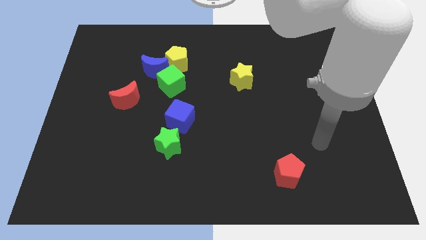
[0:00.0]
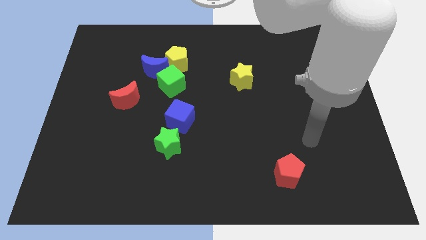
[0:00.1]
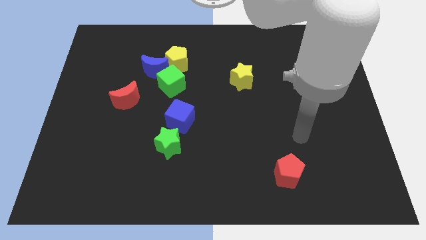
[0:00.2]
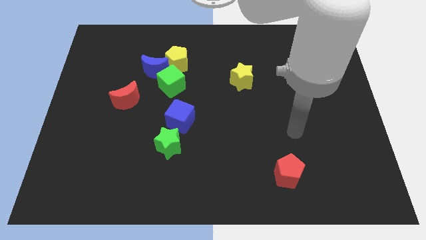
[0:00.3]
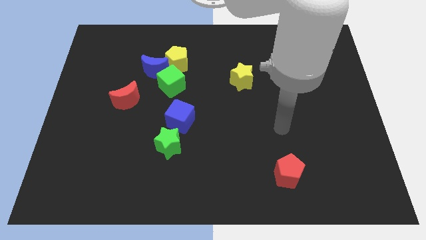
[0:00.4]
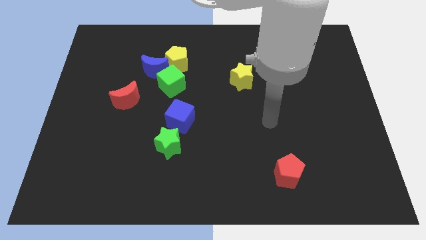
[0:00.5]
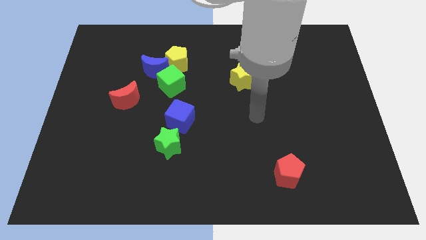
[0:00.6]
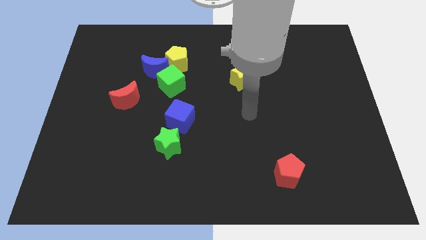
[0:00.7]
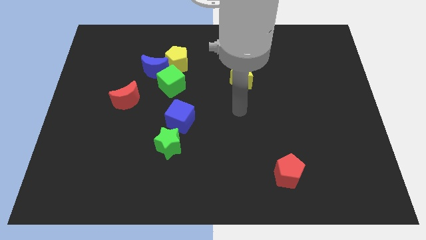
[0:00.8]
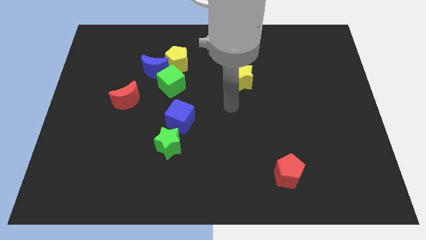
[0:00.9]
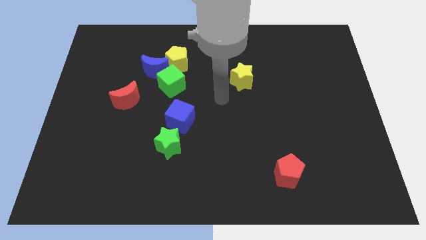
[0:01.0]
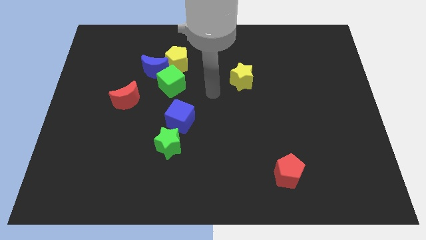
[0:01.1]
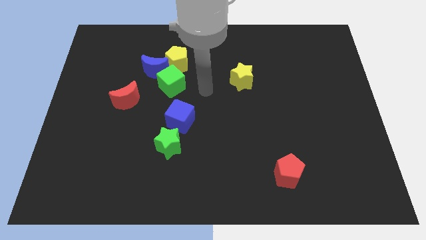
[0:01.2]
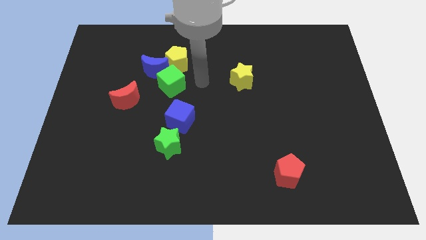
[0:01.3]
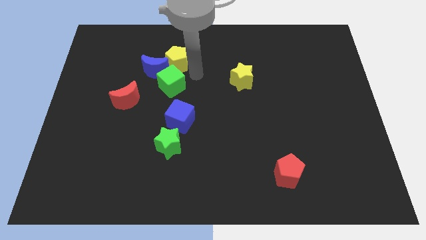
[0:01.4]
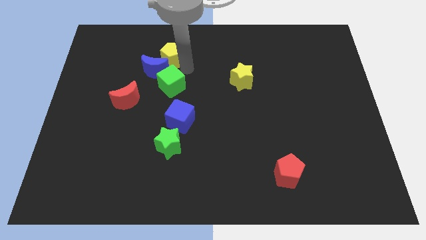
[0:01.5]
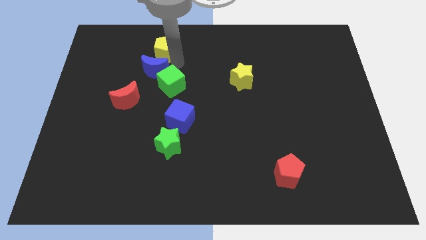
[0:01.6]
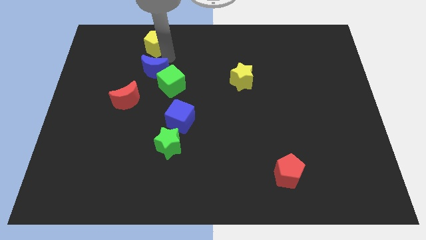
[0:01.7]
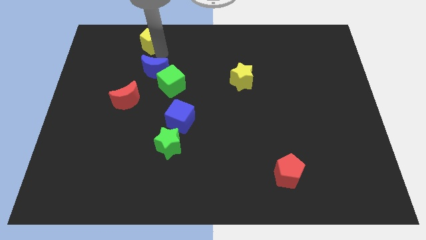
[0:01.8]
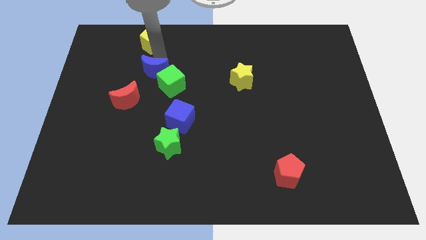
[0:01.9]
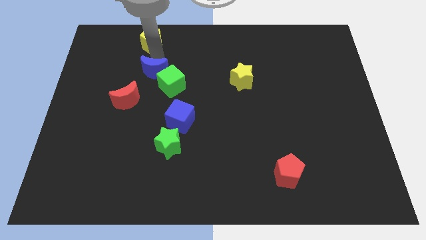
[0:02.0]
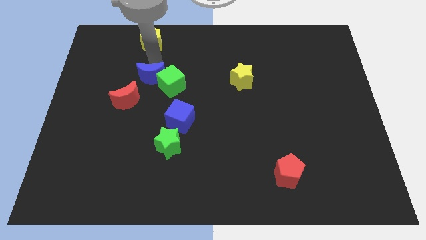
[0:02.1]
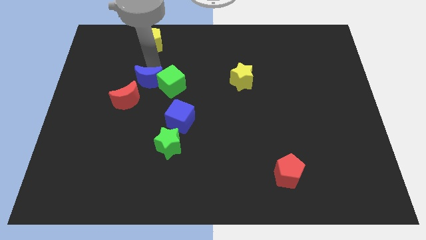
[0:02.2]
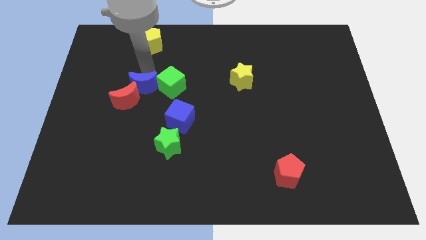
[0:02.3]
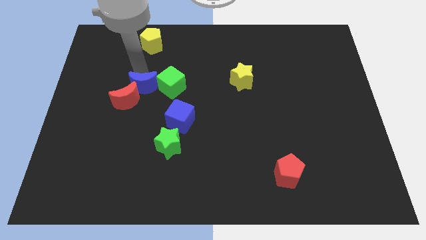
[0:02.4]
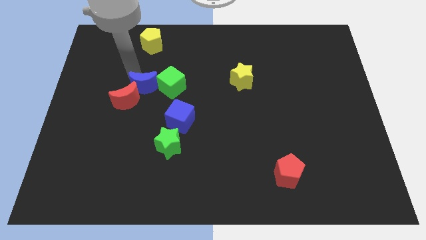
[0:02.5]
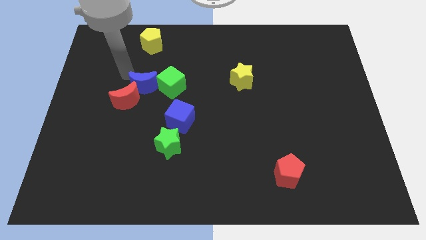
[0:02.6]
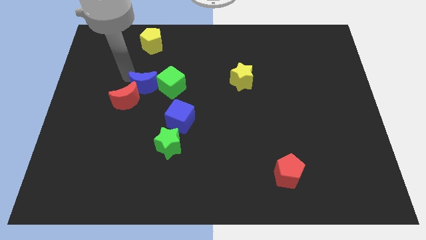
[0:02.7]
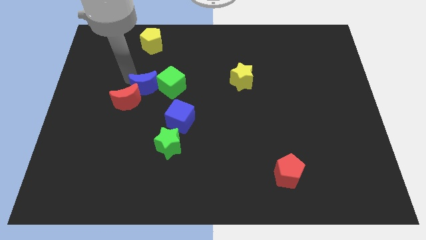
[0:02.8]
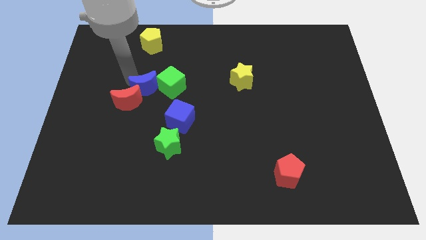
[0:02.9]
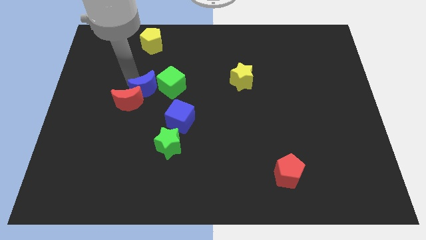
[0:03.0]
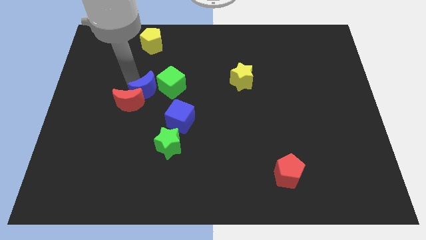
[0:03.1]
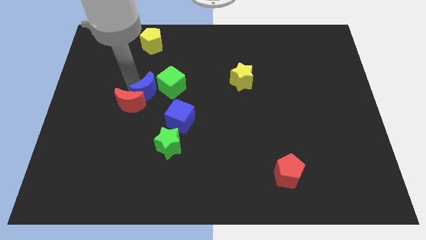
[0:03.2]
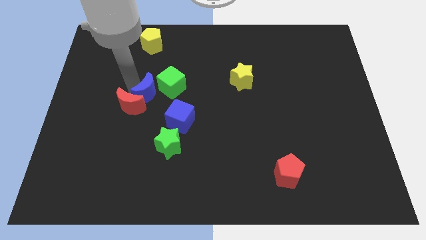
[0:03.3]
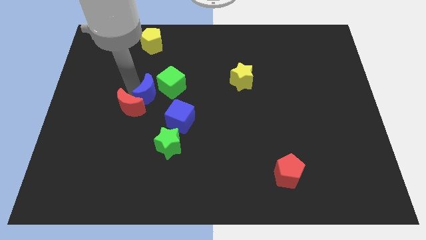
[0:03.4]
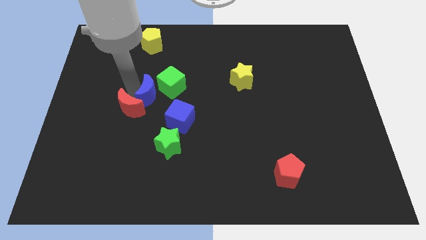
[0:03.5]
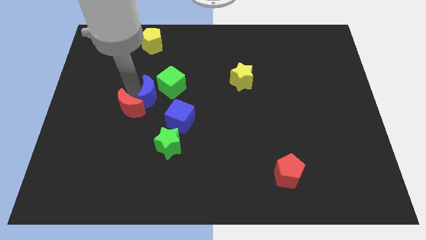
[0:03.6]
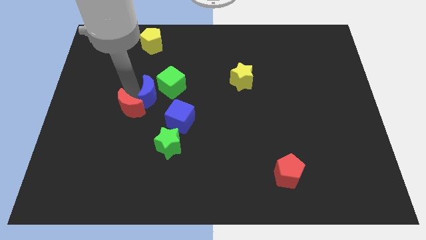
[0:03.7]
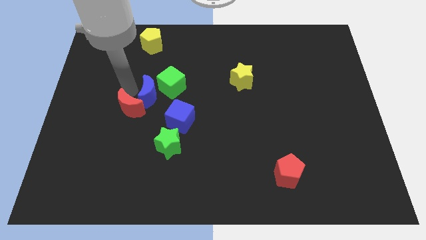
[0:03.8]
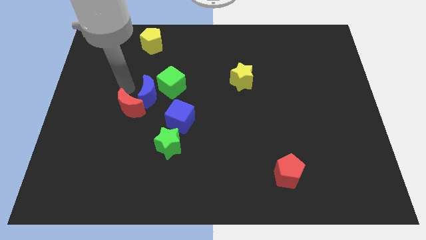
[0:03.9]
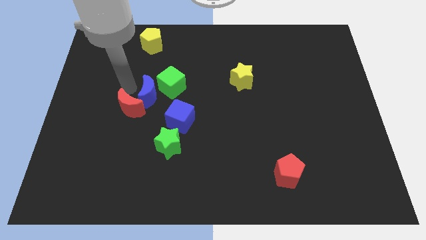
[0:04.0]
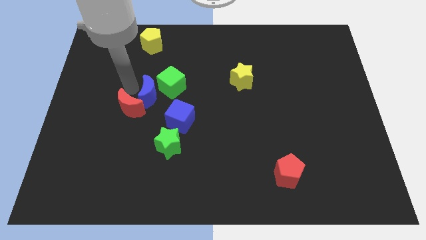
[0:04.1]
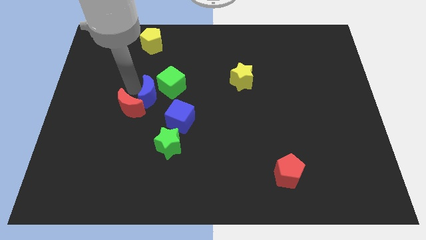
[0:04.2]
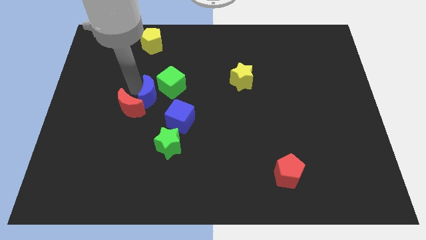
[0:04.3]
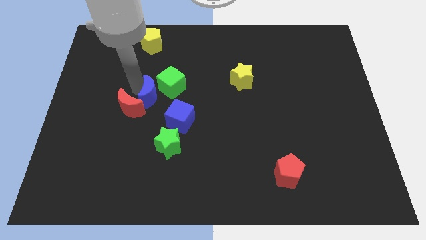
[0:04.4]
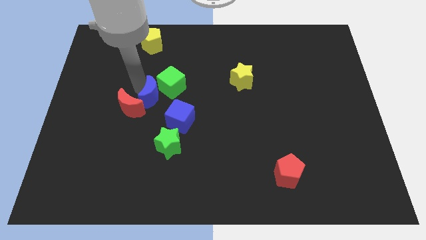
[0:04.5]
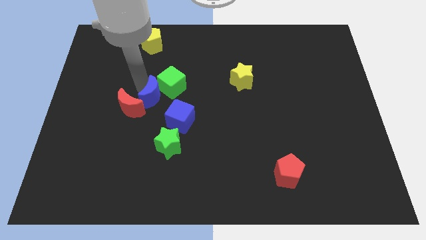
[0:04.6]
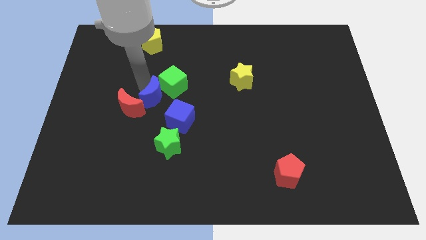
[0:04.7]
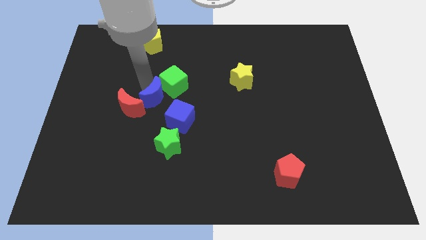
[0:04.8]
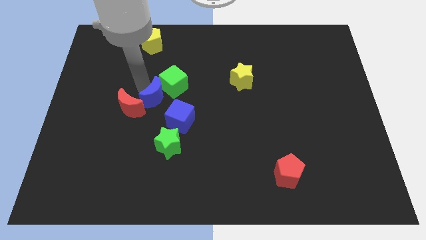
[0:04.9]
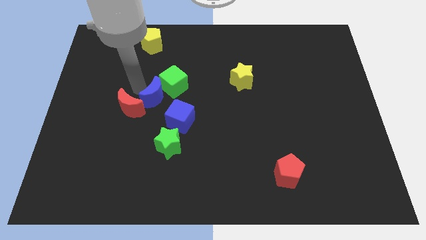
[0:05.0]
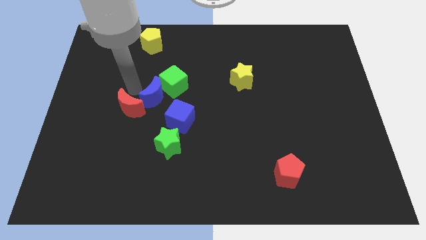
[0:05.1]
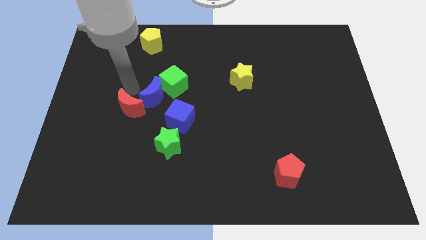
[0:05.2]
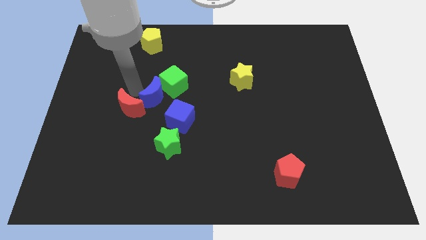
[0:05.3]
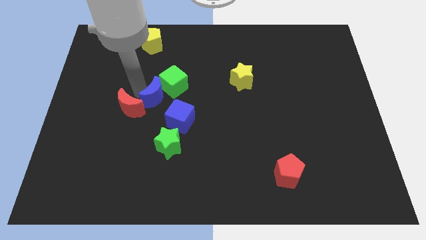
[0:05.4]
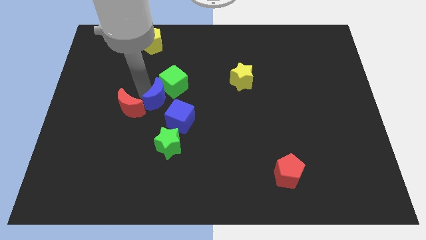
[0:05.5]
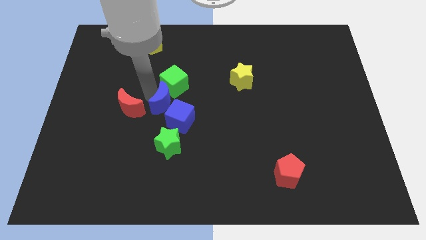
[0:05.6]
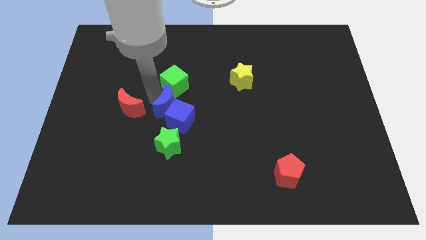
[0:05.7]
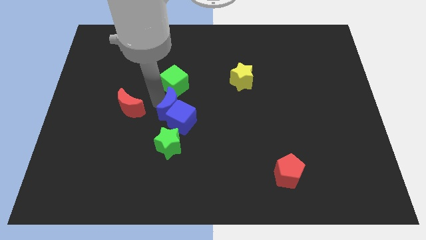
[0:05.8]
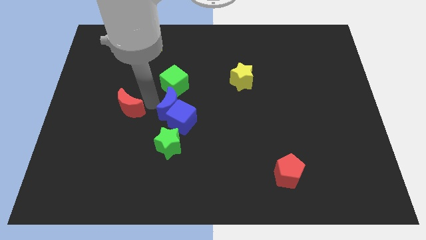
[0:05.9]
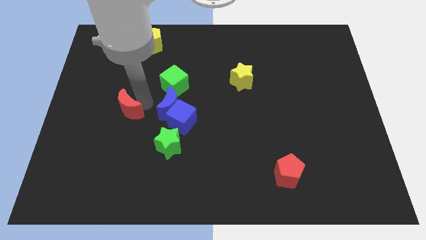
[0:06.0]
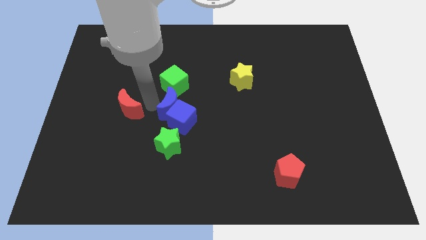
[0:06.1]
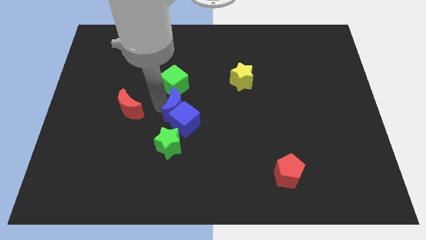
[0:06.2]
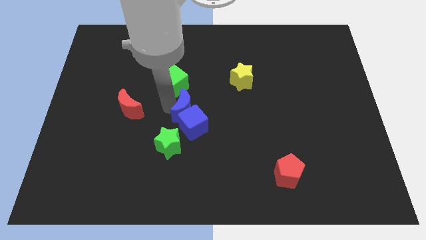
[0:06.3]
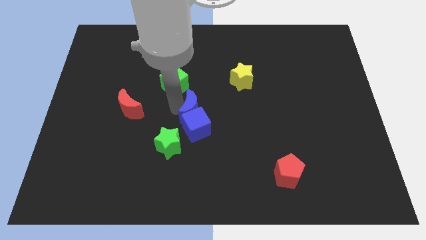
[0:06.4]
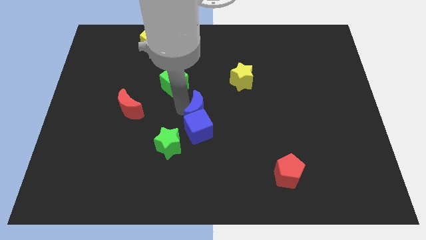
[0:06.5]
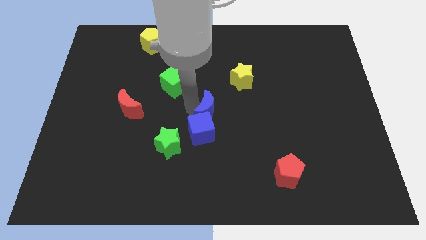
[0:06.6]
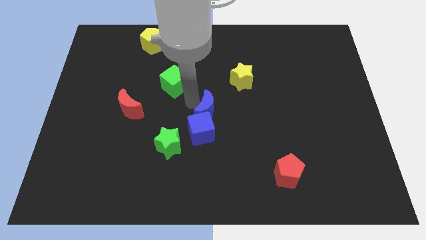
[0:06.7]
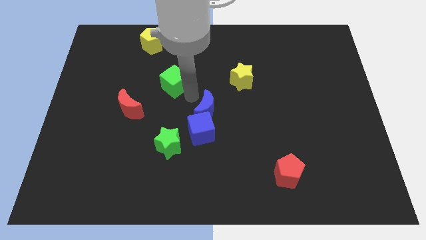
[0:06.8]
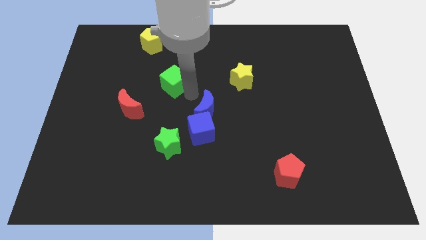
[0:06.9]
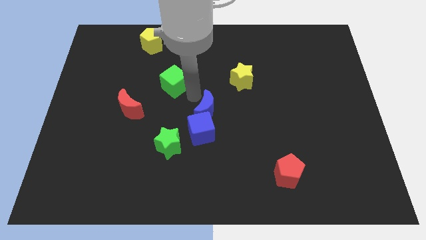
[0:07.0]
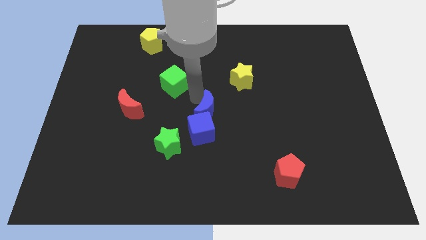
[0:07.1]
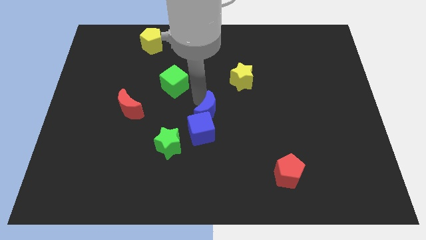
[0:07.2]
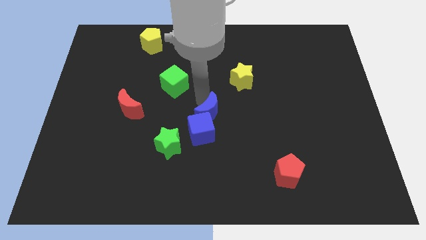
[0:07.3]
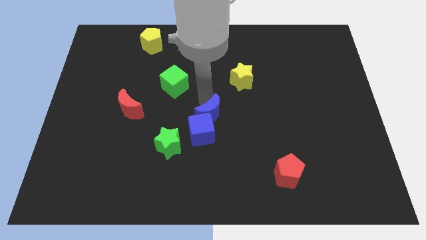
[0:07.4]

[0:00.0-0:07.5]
push the blue moon downwards and to the right diagonally

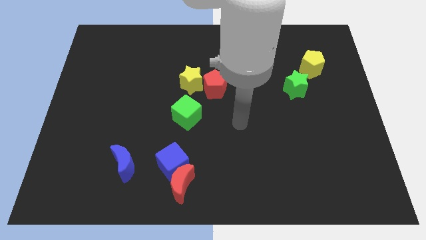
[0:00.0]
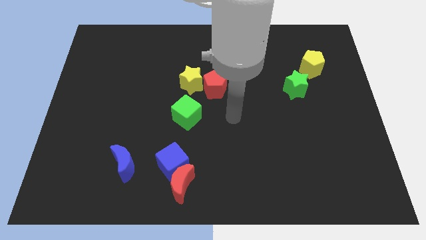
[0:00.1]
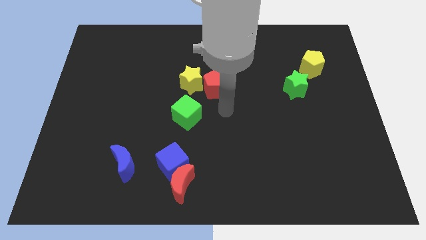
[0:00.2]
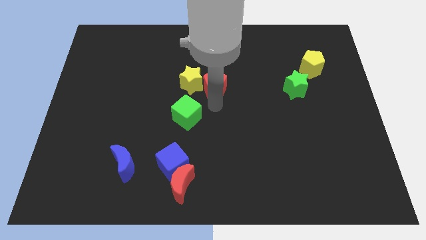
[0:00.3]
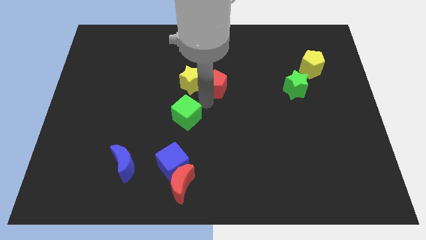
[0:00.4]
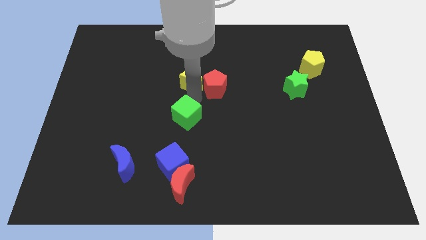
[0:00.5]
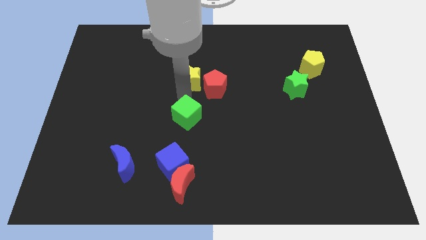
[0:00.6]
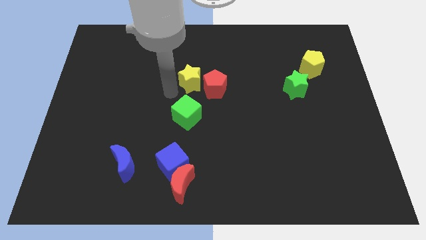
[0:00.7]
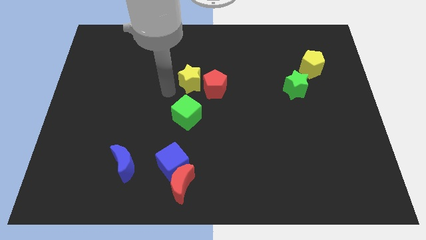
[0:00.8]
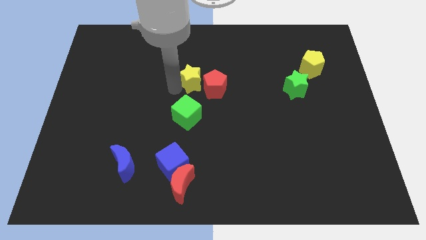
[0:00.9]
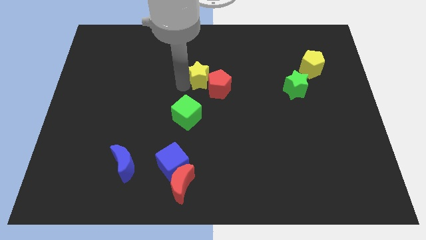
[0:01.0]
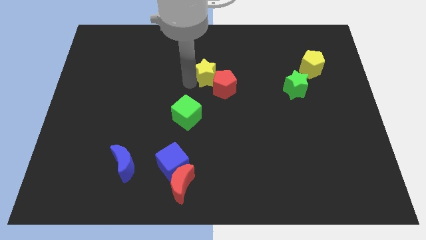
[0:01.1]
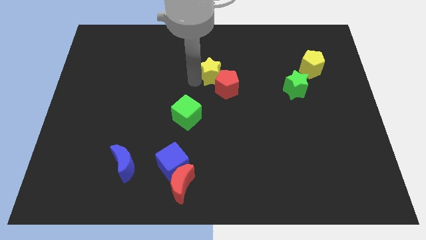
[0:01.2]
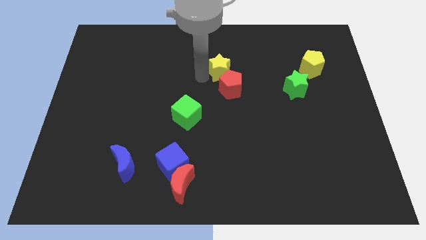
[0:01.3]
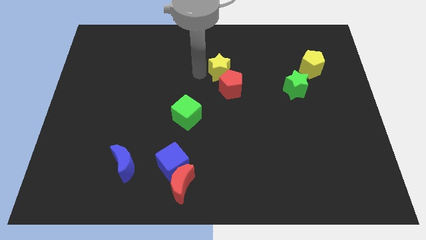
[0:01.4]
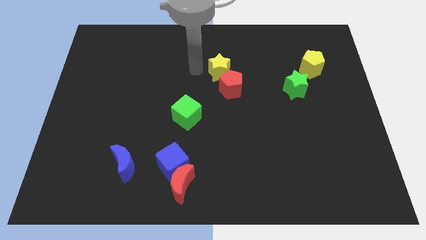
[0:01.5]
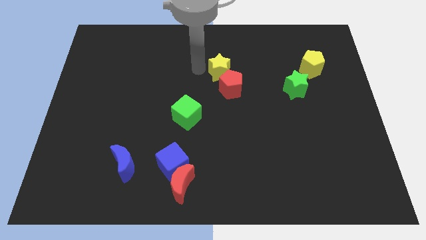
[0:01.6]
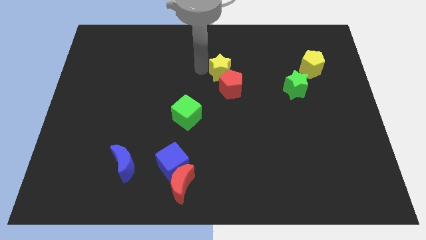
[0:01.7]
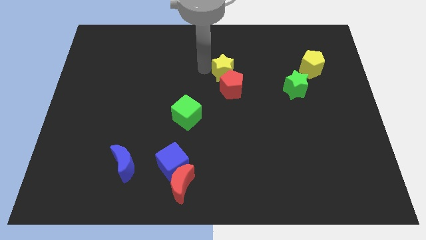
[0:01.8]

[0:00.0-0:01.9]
move the yellow star a little to the right
